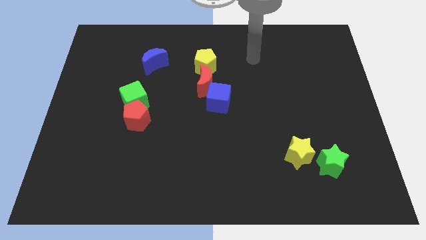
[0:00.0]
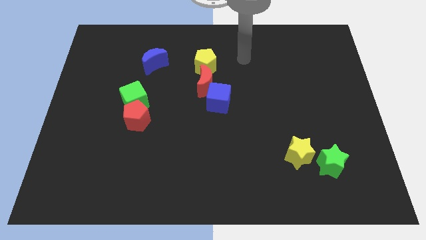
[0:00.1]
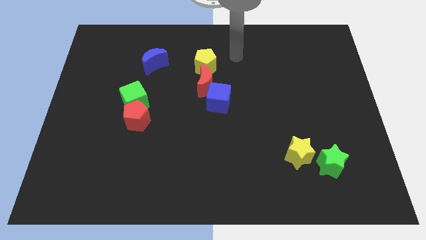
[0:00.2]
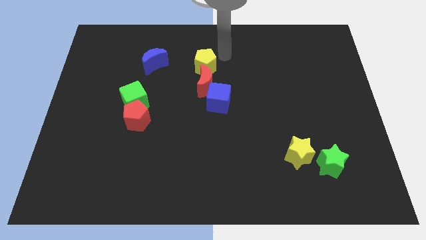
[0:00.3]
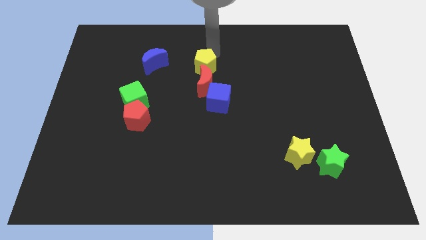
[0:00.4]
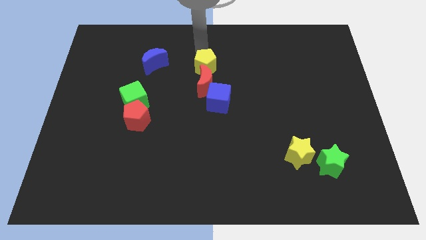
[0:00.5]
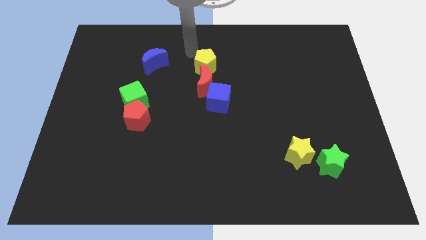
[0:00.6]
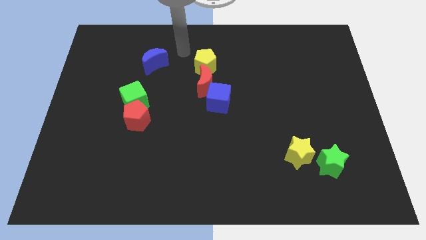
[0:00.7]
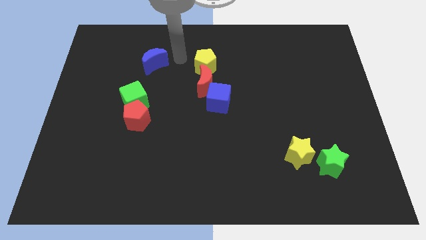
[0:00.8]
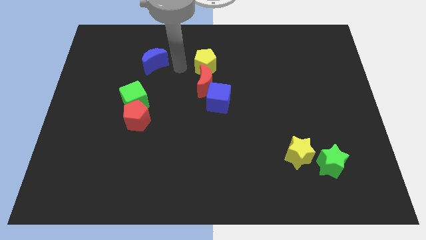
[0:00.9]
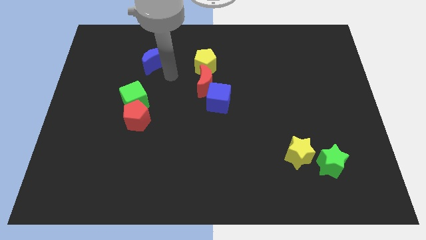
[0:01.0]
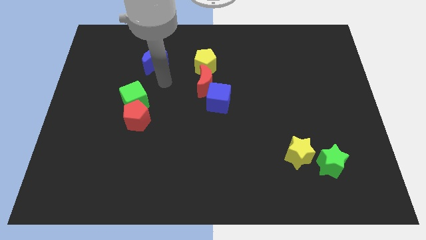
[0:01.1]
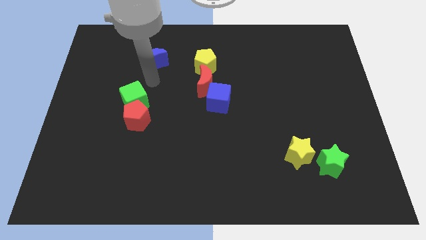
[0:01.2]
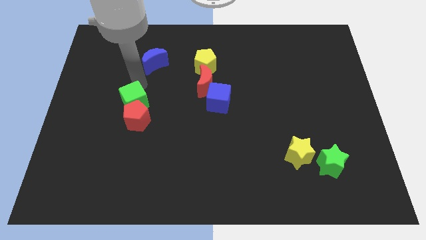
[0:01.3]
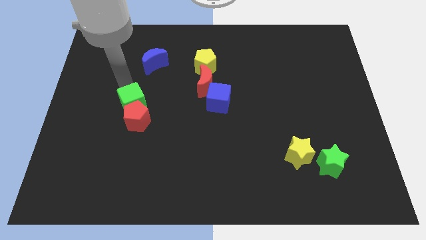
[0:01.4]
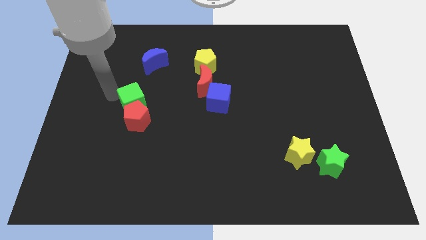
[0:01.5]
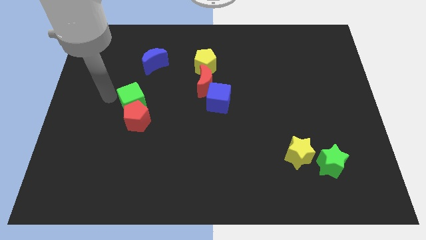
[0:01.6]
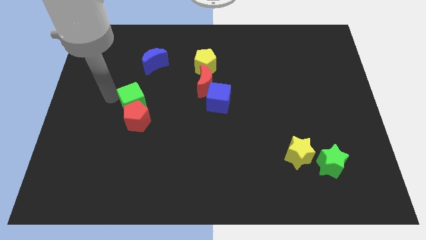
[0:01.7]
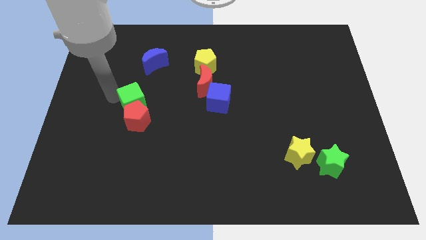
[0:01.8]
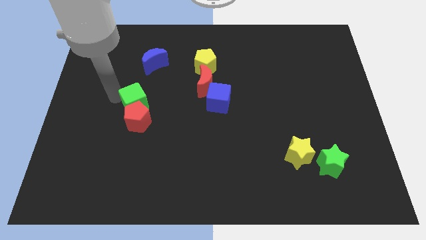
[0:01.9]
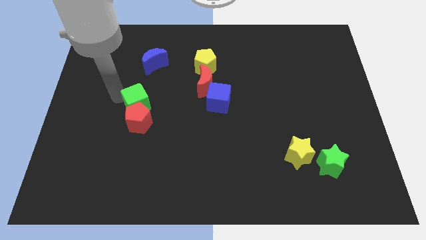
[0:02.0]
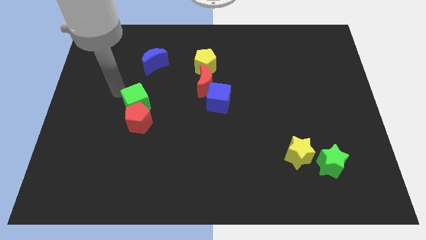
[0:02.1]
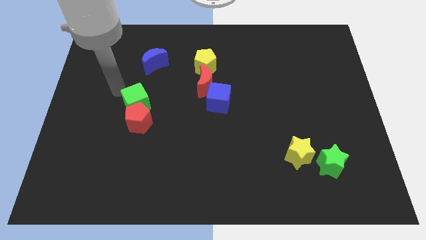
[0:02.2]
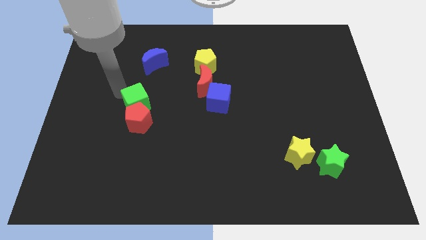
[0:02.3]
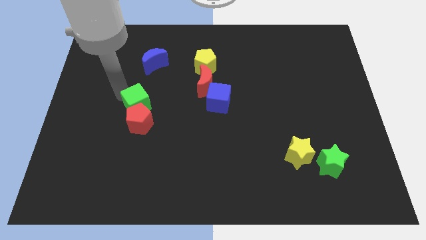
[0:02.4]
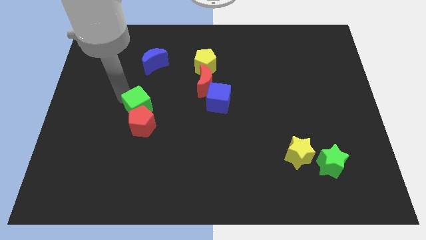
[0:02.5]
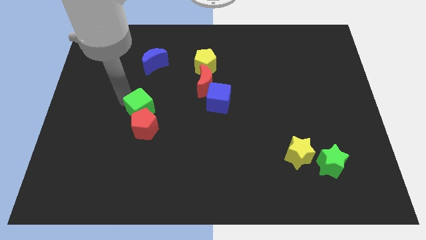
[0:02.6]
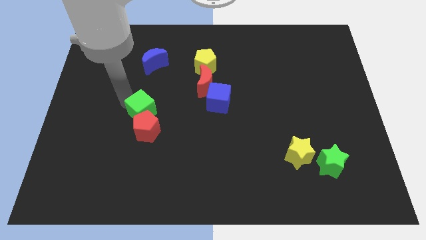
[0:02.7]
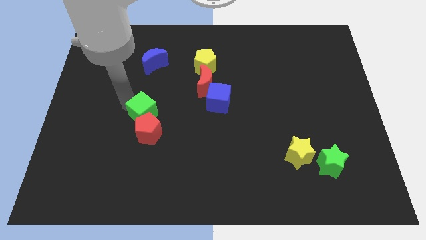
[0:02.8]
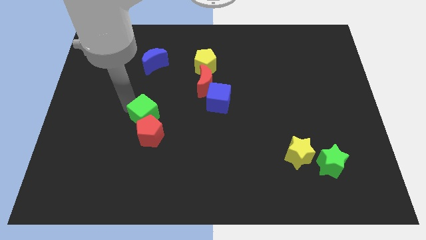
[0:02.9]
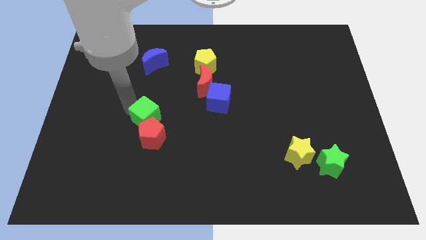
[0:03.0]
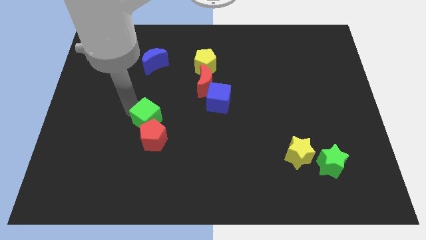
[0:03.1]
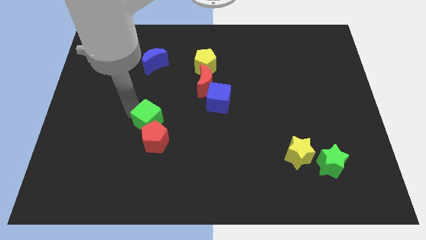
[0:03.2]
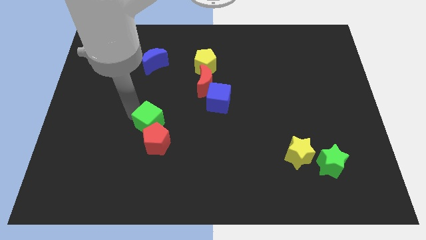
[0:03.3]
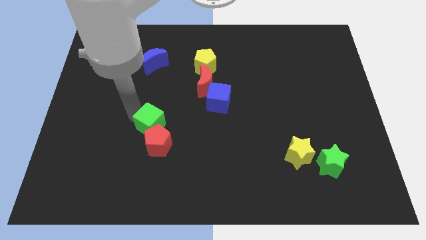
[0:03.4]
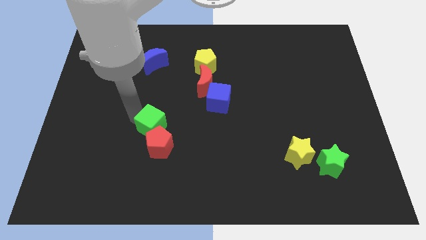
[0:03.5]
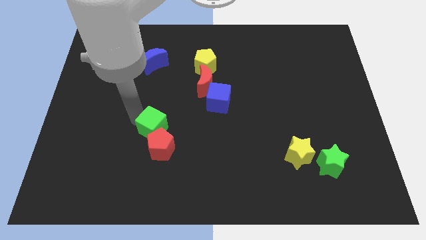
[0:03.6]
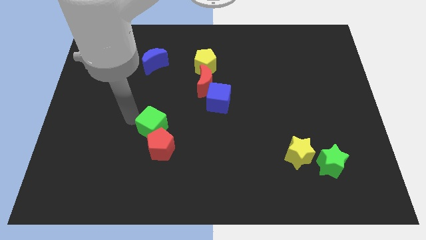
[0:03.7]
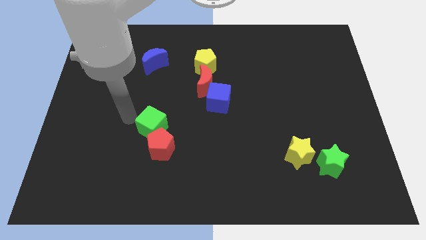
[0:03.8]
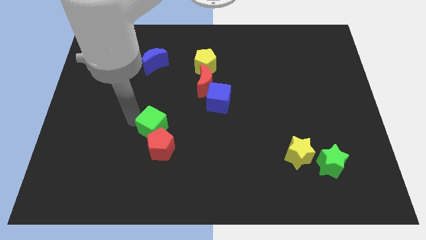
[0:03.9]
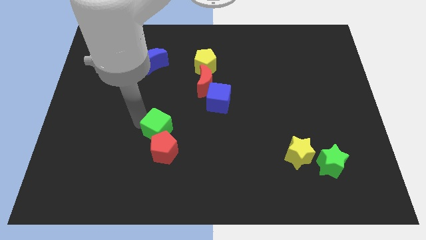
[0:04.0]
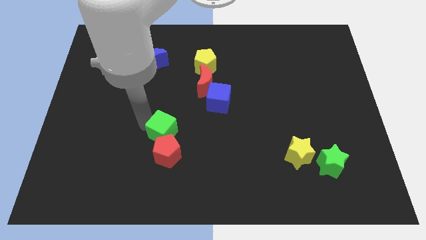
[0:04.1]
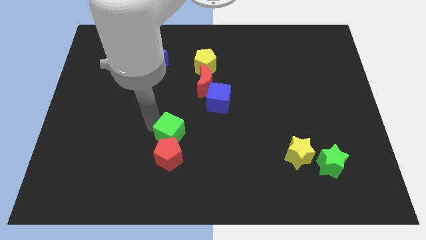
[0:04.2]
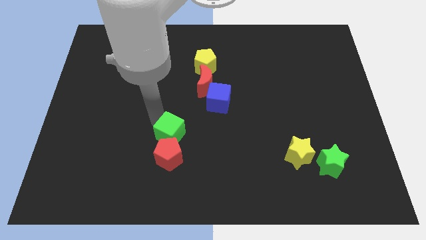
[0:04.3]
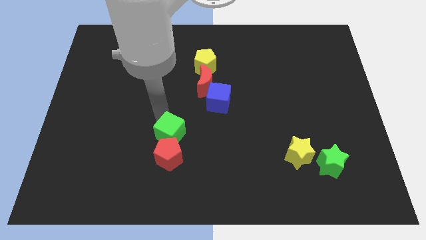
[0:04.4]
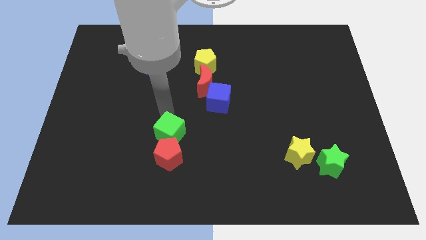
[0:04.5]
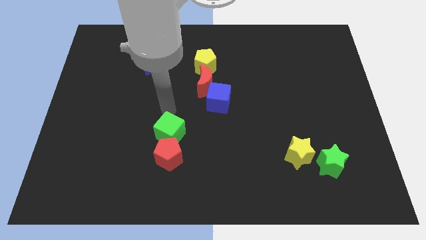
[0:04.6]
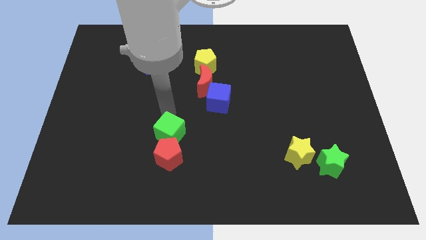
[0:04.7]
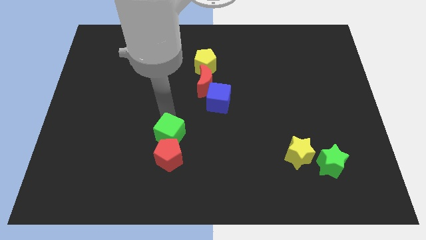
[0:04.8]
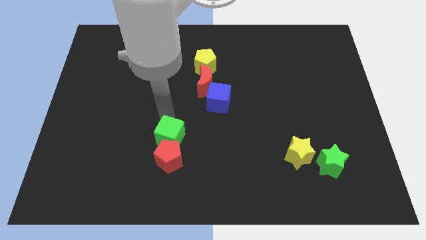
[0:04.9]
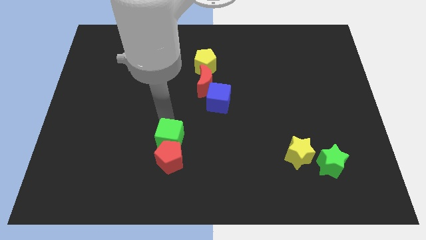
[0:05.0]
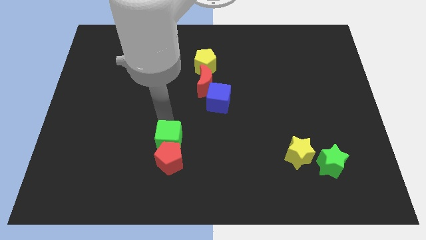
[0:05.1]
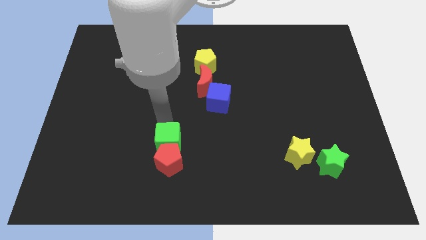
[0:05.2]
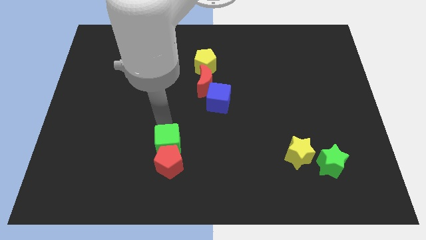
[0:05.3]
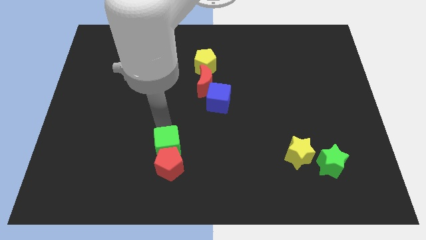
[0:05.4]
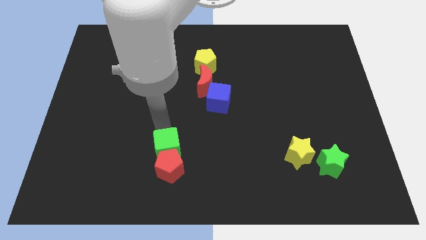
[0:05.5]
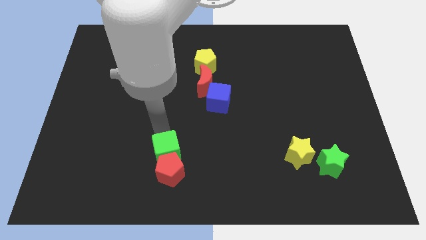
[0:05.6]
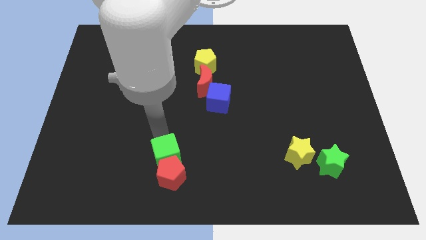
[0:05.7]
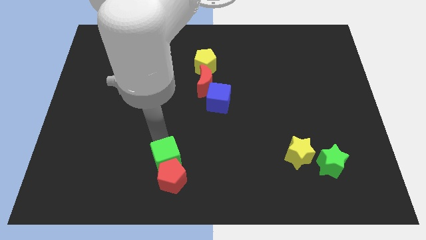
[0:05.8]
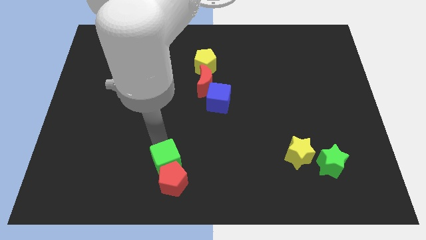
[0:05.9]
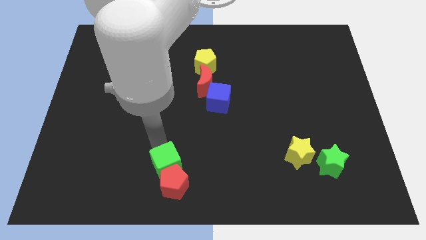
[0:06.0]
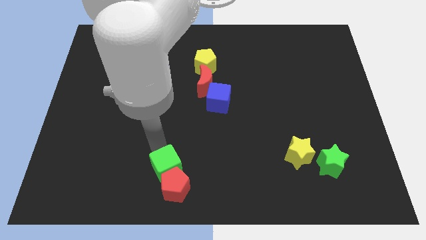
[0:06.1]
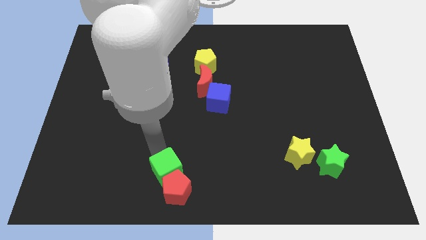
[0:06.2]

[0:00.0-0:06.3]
put the green cube to the bottom side

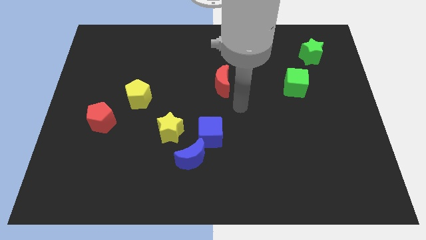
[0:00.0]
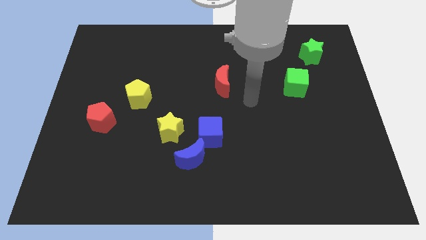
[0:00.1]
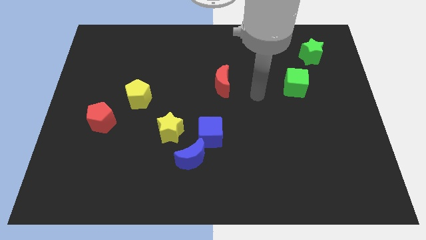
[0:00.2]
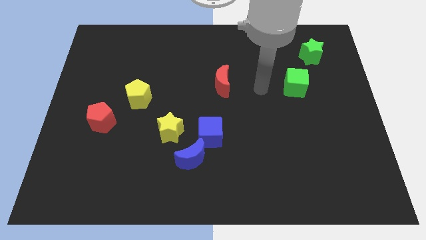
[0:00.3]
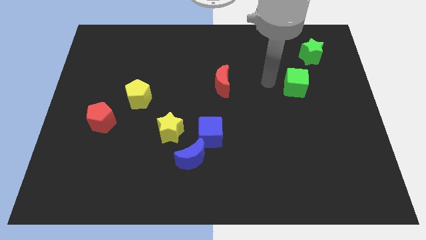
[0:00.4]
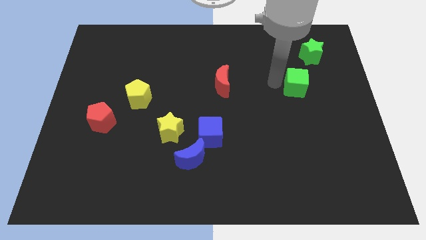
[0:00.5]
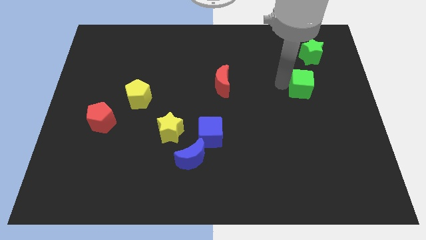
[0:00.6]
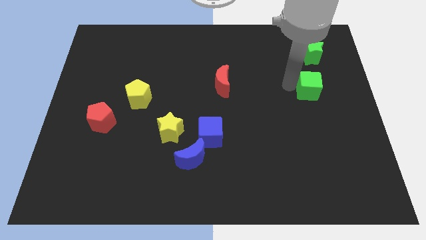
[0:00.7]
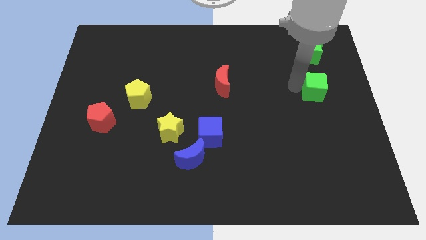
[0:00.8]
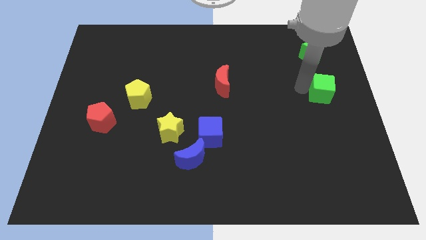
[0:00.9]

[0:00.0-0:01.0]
put the green cube to the right side of the board
